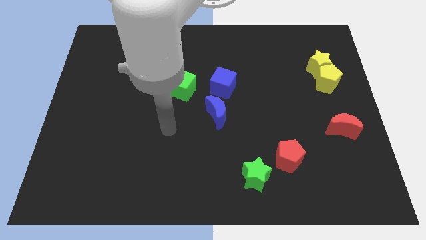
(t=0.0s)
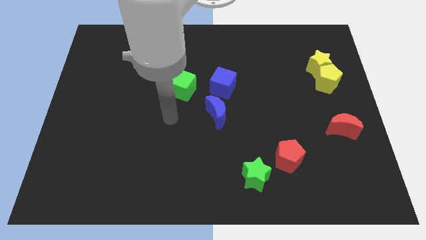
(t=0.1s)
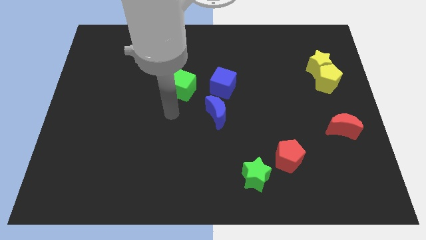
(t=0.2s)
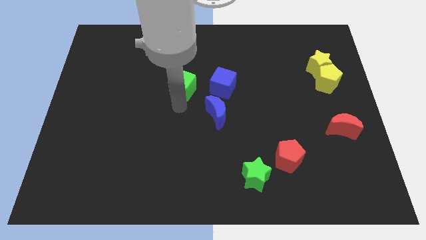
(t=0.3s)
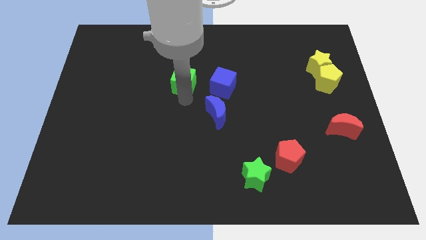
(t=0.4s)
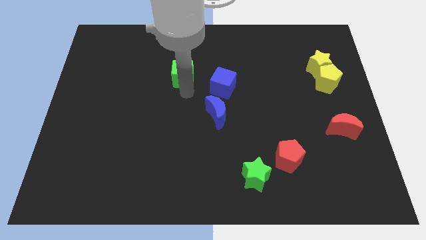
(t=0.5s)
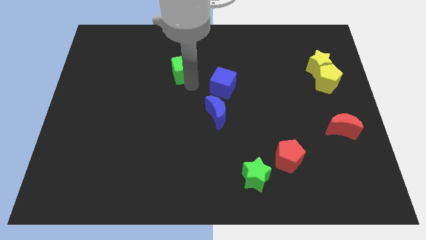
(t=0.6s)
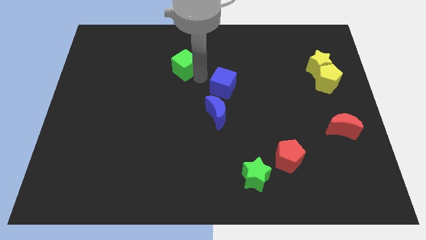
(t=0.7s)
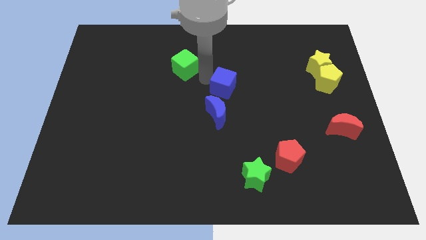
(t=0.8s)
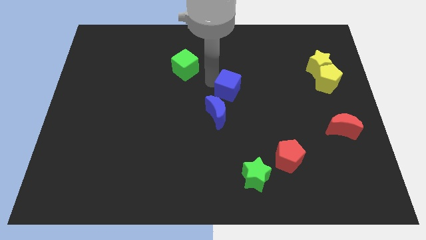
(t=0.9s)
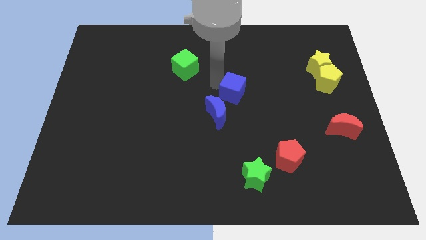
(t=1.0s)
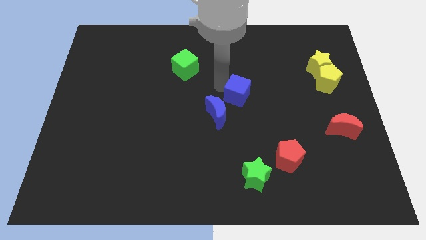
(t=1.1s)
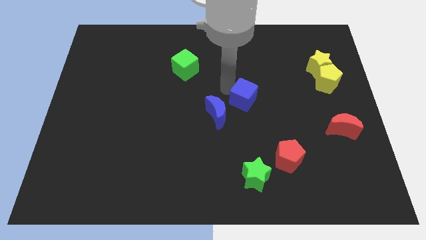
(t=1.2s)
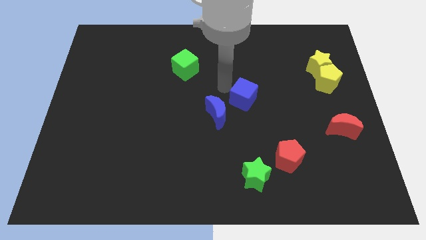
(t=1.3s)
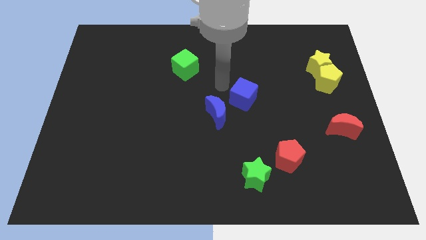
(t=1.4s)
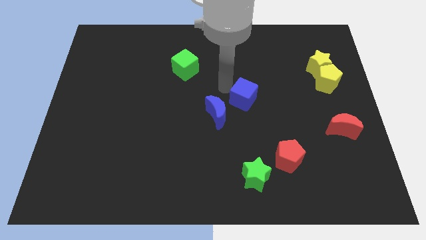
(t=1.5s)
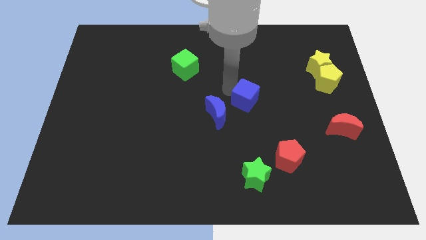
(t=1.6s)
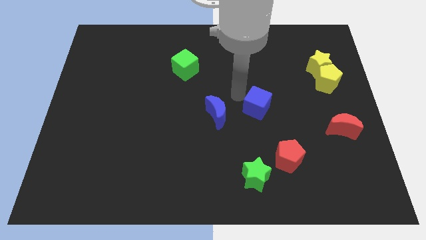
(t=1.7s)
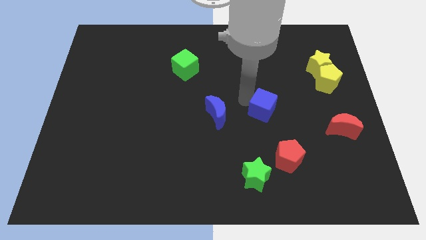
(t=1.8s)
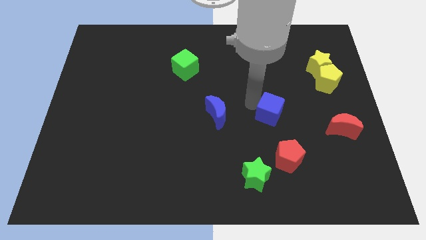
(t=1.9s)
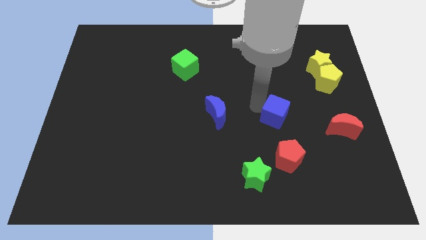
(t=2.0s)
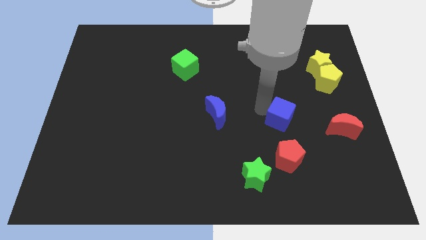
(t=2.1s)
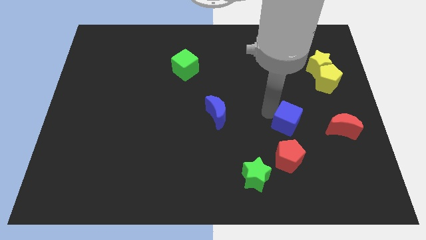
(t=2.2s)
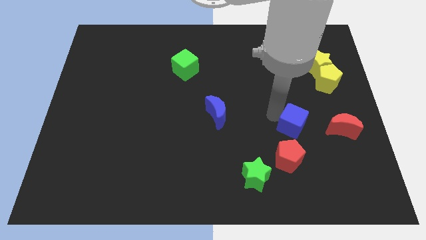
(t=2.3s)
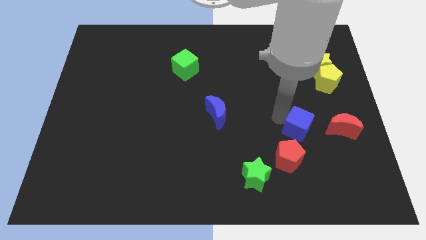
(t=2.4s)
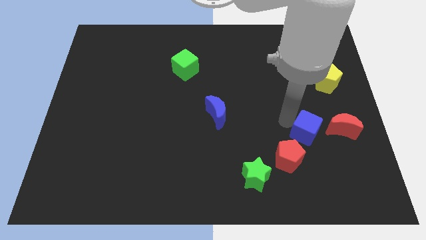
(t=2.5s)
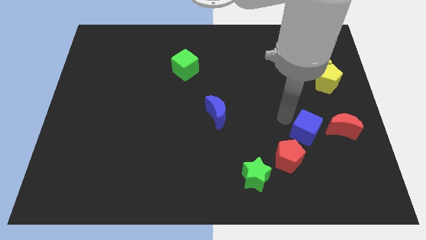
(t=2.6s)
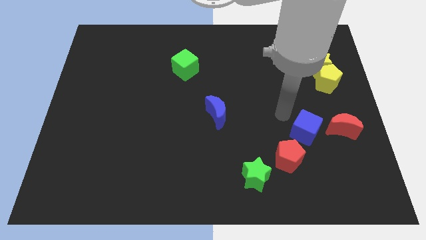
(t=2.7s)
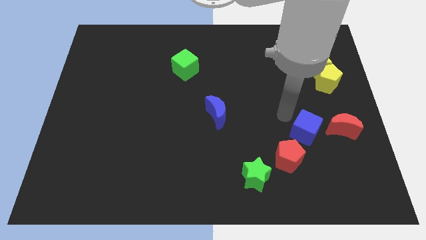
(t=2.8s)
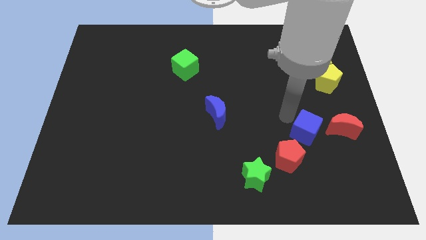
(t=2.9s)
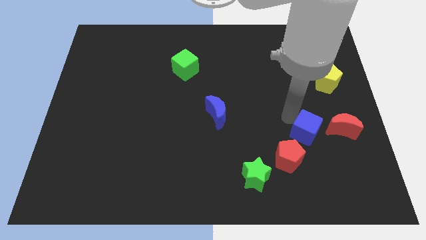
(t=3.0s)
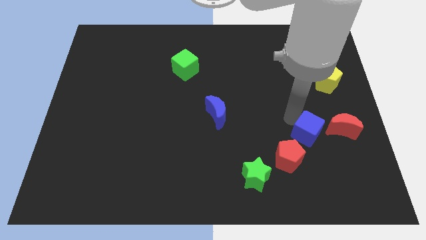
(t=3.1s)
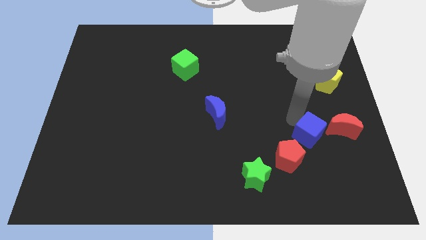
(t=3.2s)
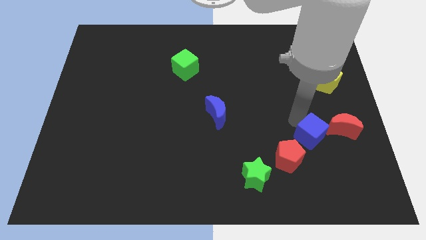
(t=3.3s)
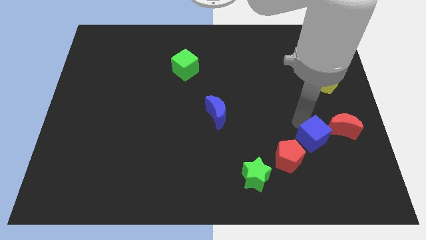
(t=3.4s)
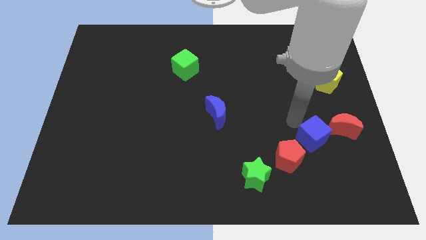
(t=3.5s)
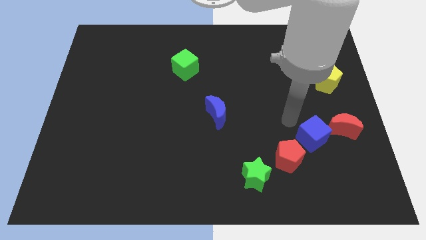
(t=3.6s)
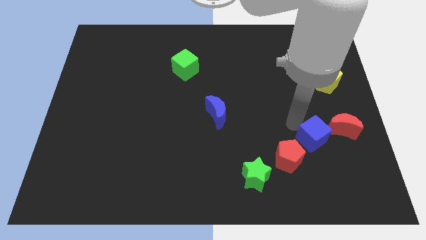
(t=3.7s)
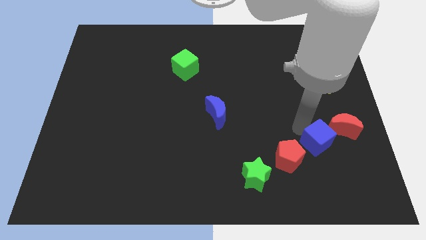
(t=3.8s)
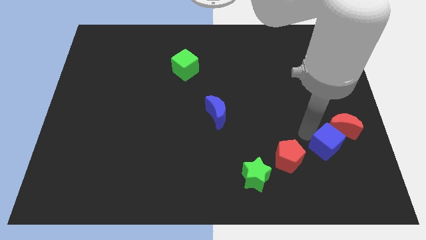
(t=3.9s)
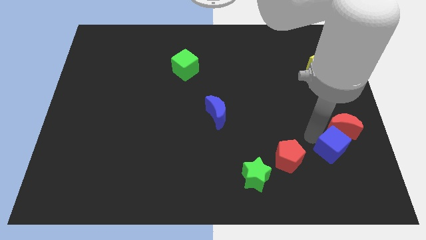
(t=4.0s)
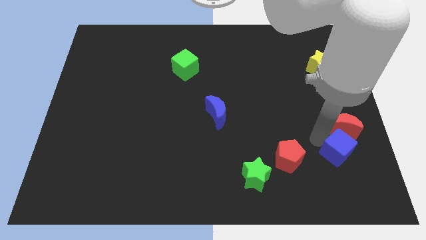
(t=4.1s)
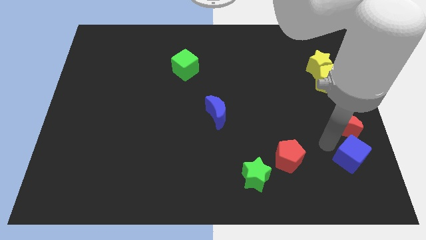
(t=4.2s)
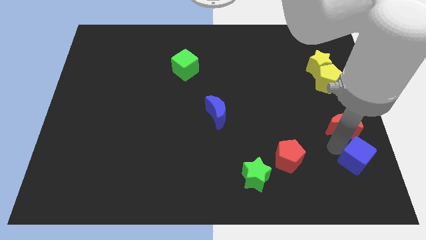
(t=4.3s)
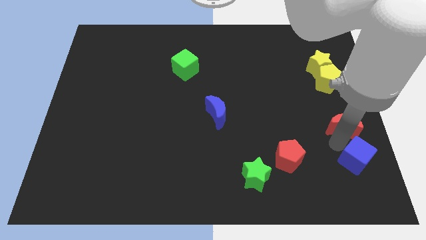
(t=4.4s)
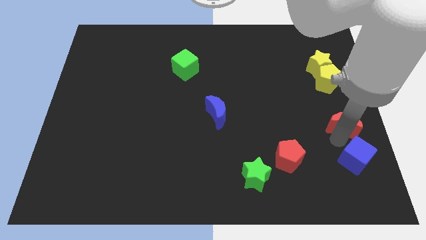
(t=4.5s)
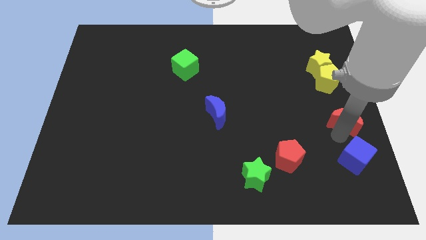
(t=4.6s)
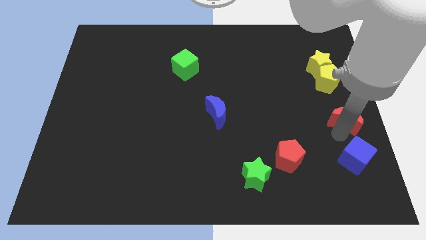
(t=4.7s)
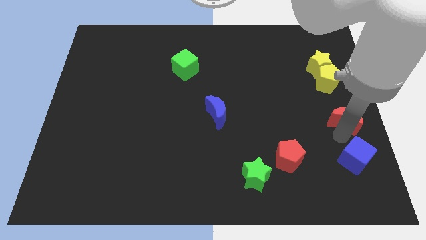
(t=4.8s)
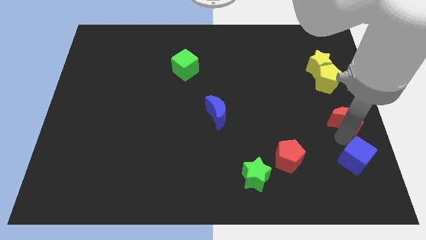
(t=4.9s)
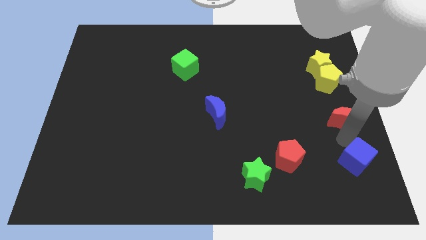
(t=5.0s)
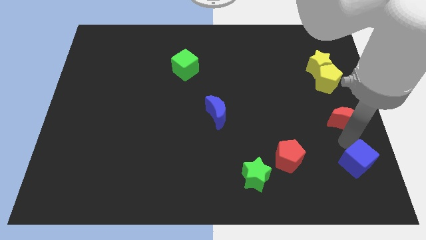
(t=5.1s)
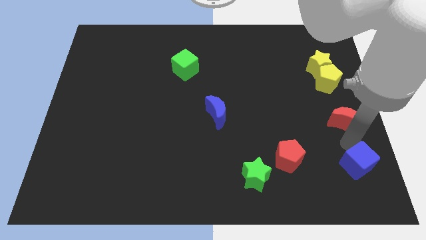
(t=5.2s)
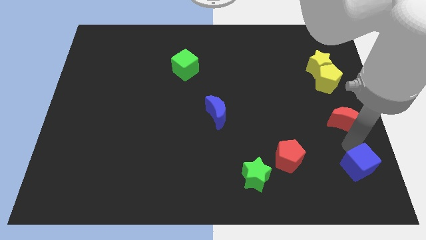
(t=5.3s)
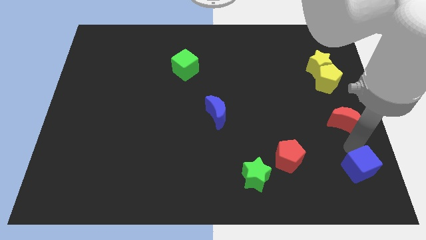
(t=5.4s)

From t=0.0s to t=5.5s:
move the blue cube to the bottom right corner

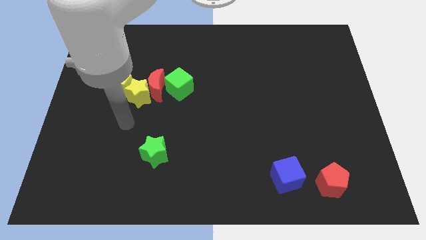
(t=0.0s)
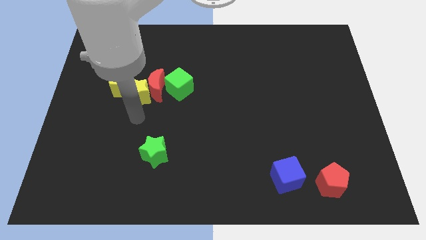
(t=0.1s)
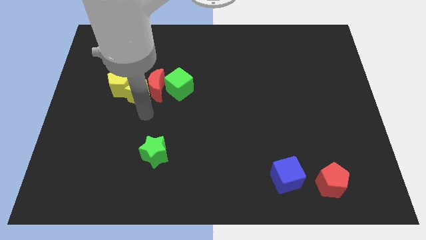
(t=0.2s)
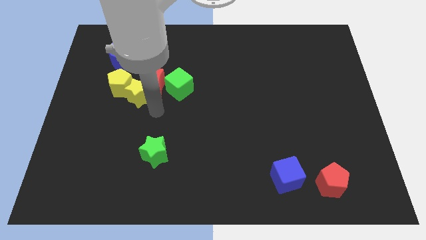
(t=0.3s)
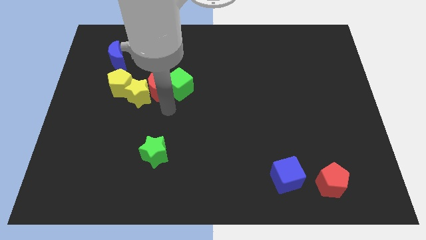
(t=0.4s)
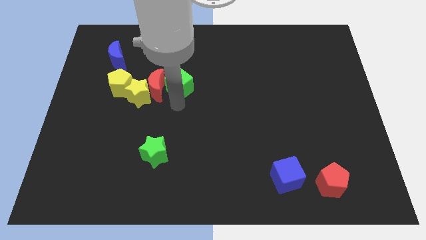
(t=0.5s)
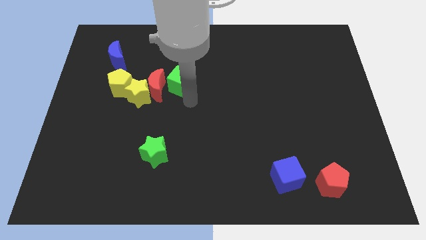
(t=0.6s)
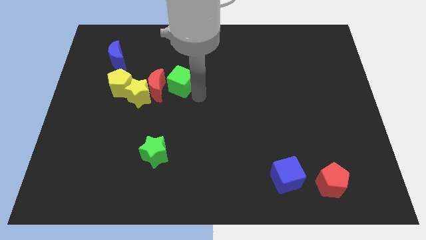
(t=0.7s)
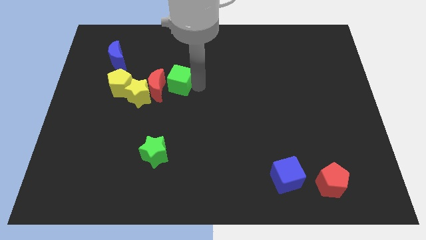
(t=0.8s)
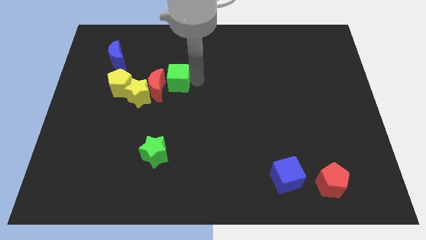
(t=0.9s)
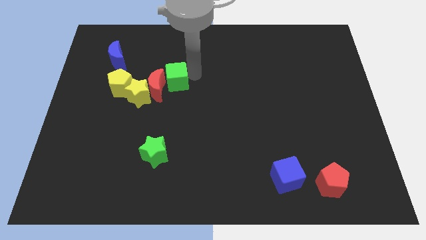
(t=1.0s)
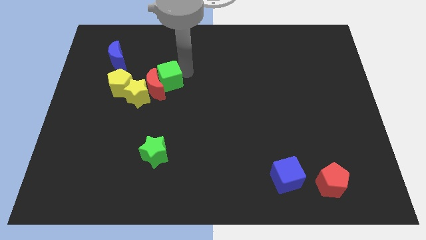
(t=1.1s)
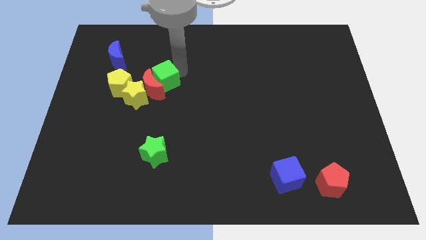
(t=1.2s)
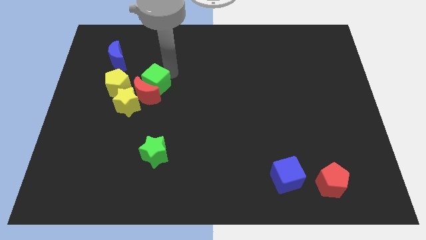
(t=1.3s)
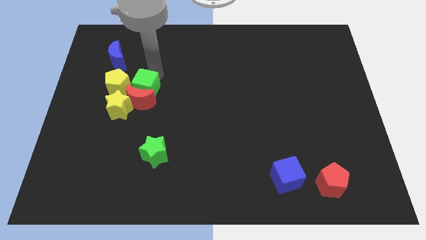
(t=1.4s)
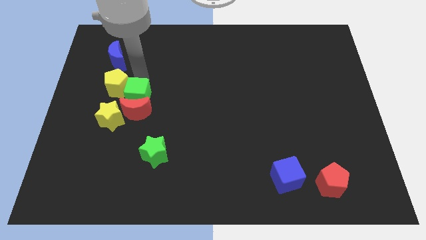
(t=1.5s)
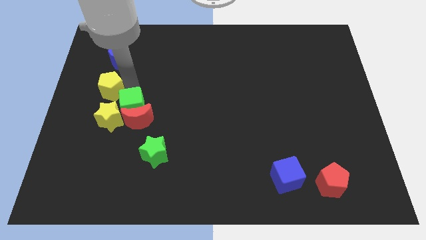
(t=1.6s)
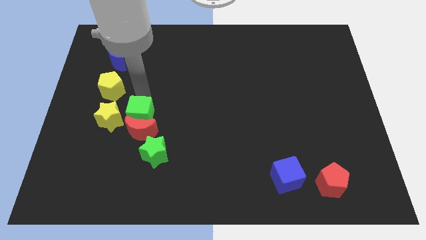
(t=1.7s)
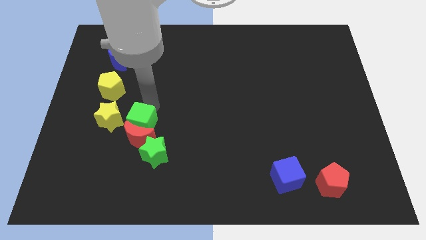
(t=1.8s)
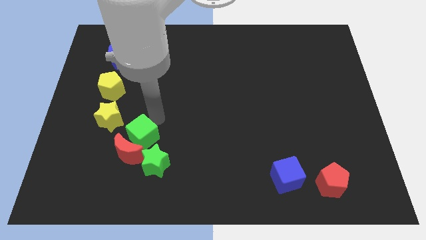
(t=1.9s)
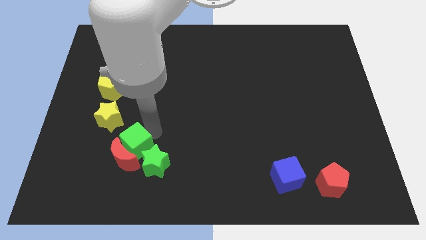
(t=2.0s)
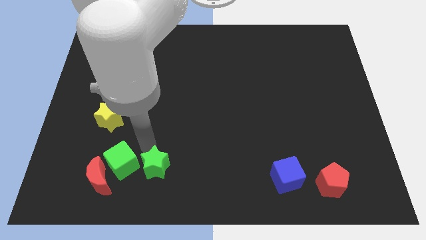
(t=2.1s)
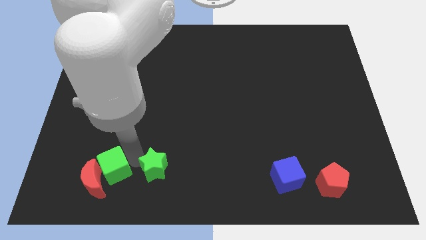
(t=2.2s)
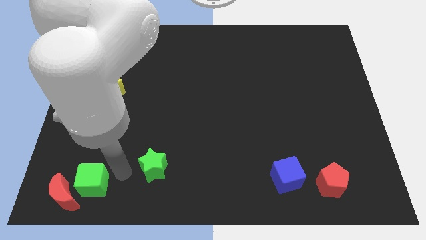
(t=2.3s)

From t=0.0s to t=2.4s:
slide the red moon to the bottom left corner
